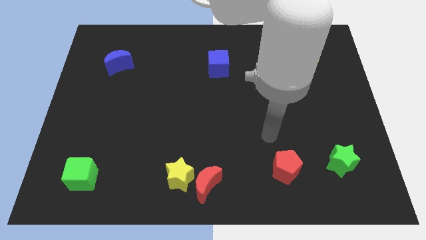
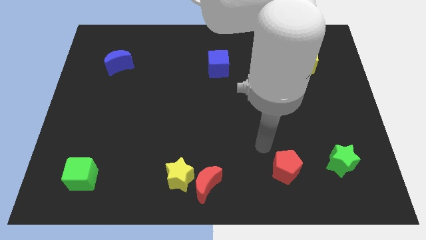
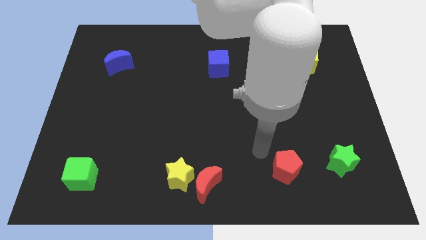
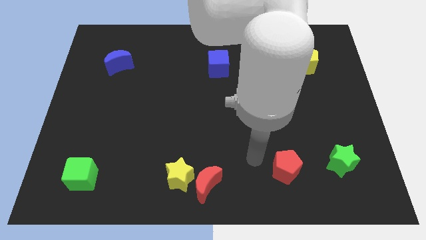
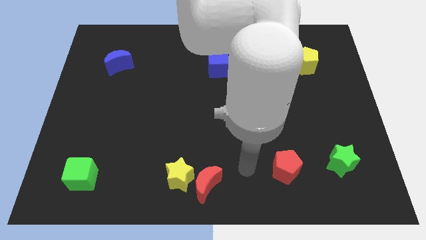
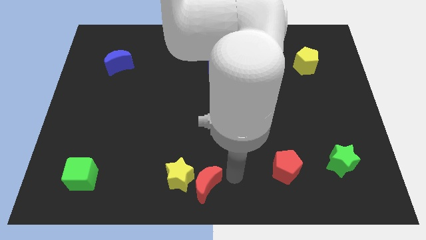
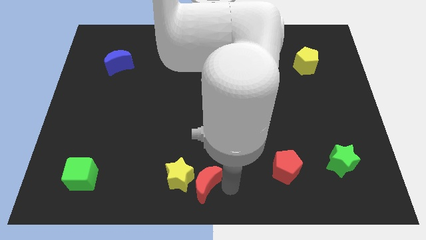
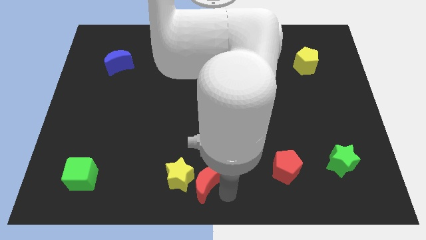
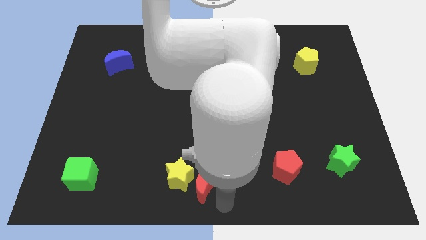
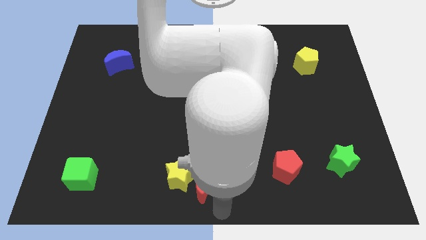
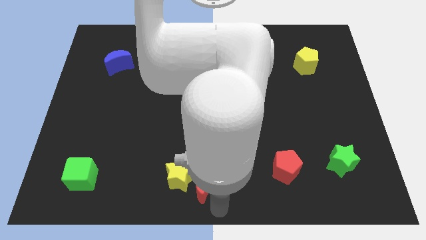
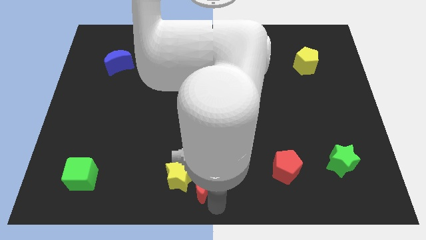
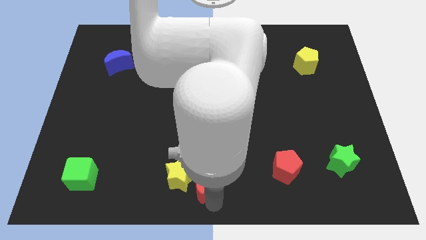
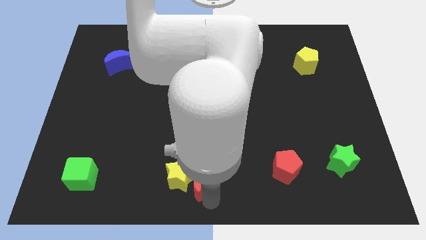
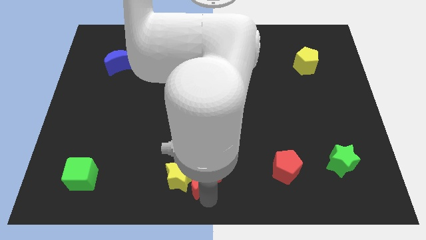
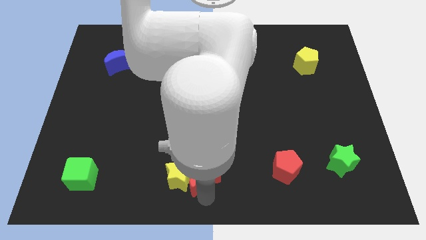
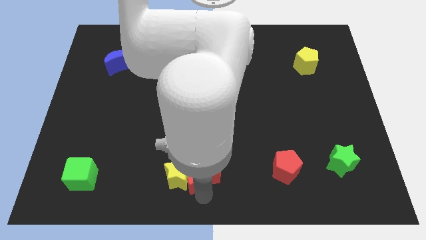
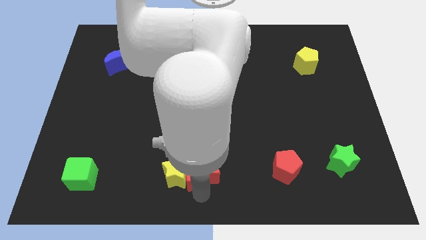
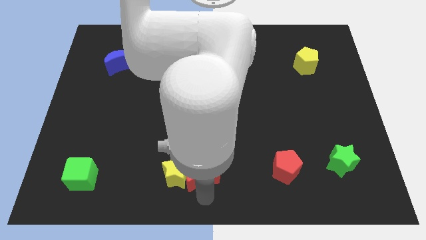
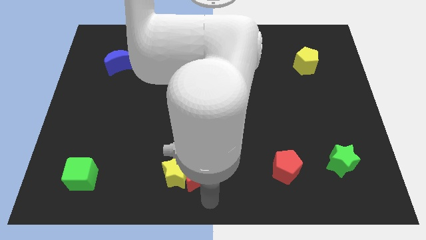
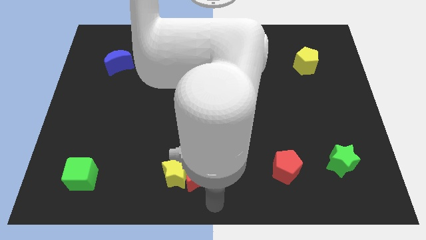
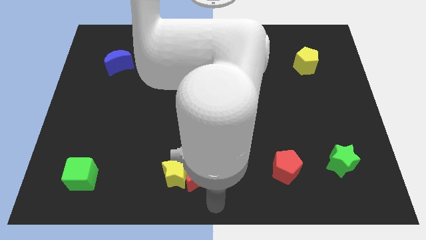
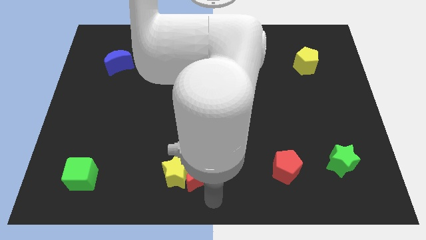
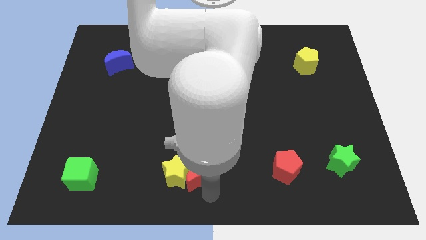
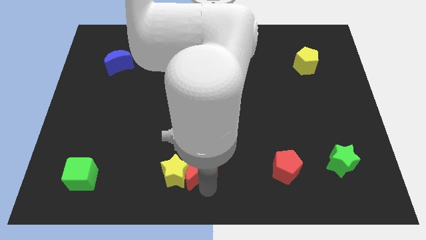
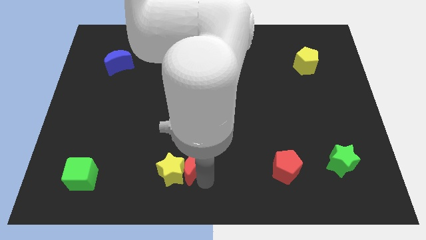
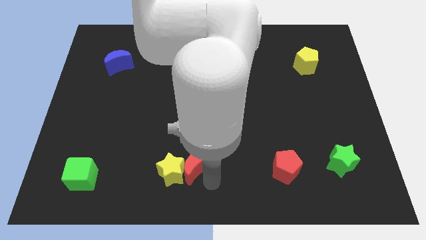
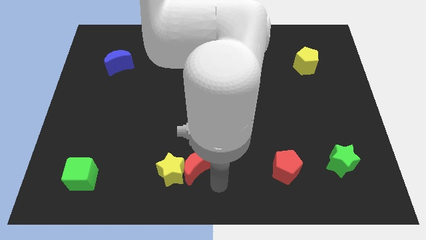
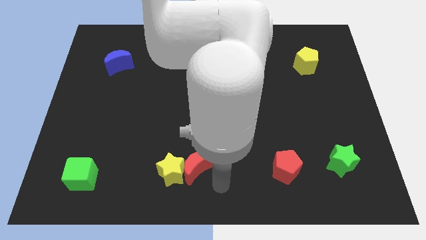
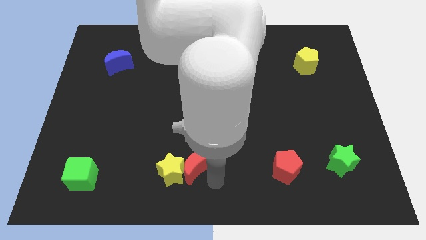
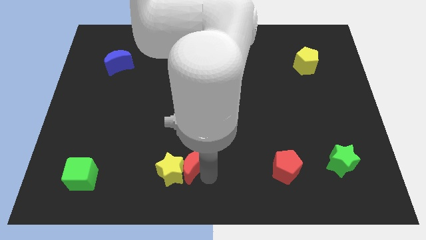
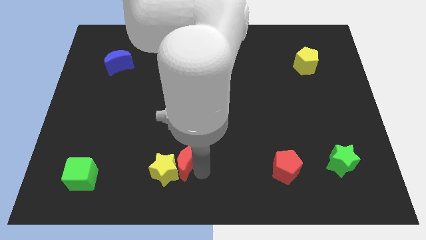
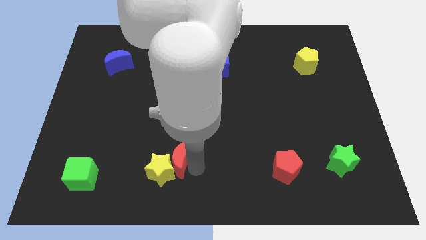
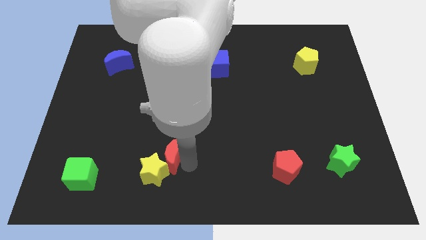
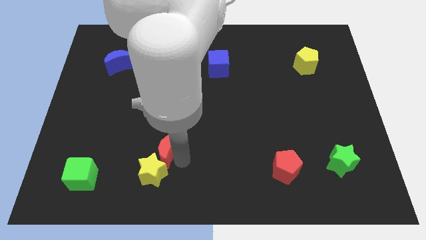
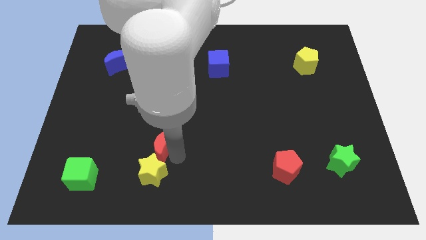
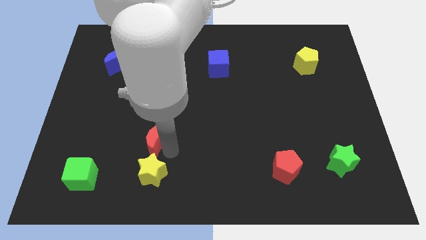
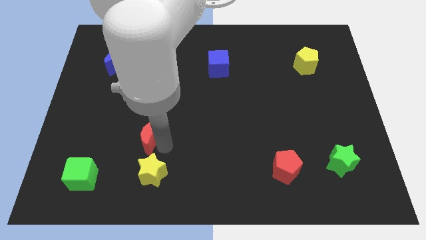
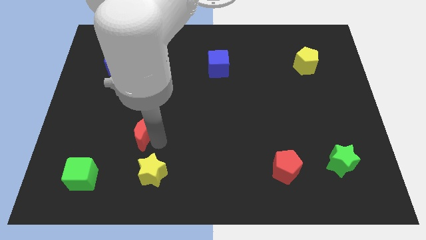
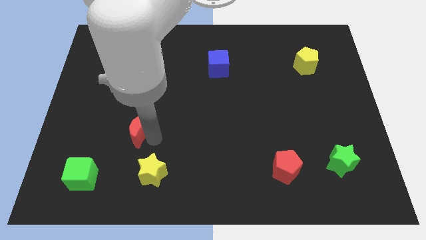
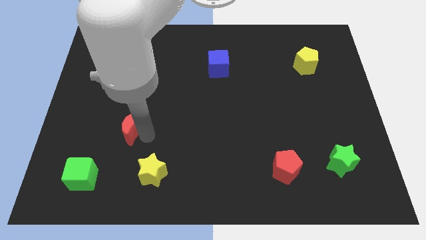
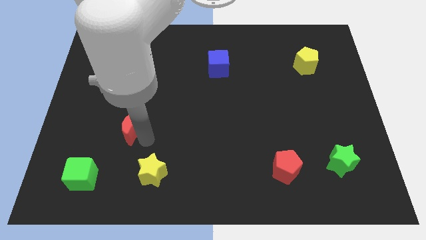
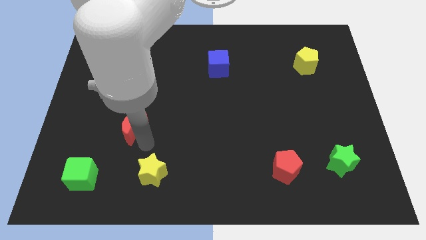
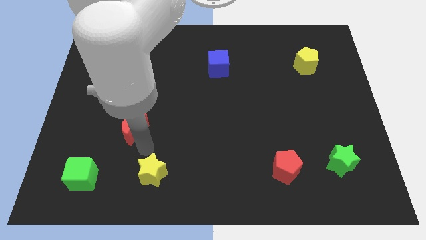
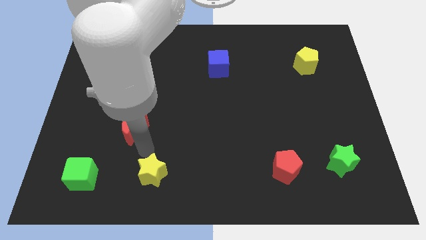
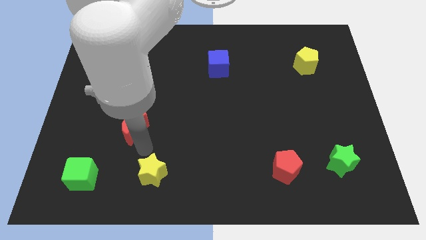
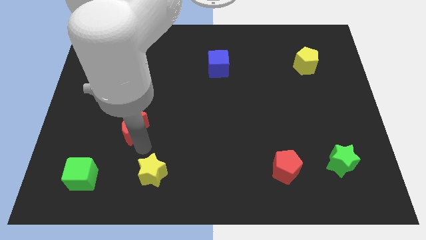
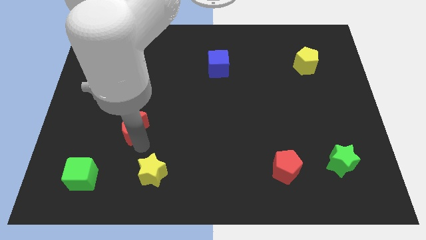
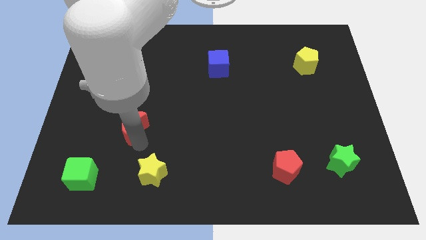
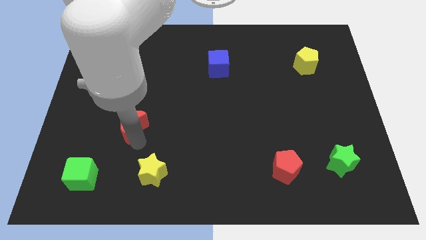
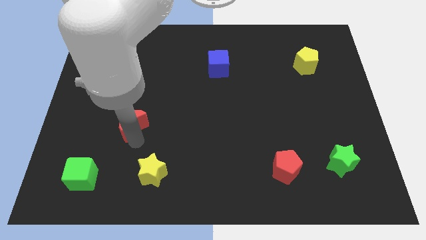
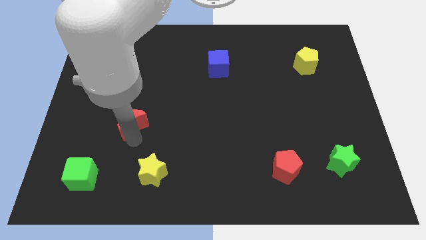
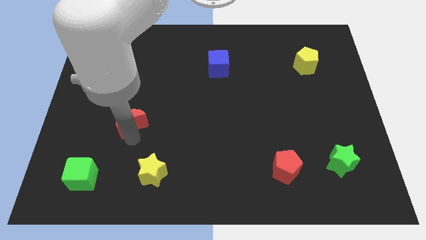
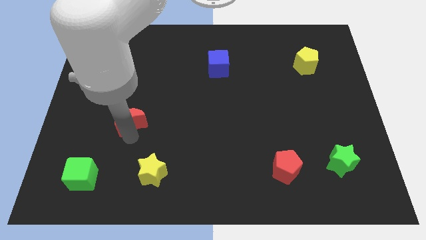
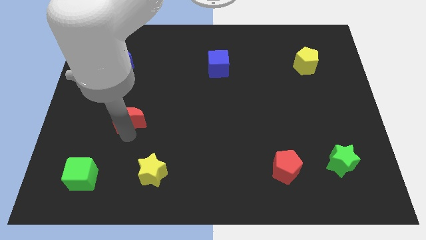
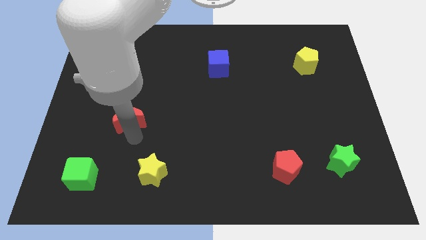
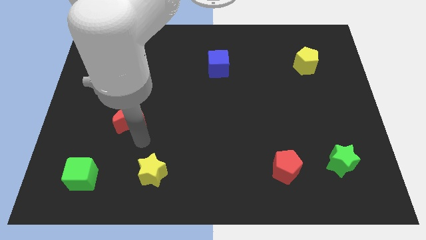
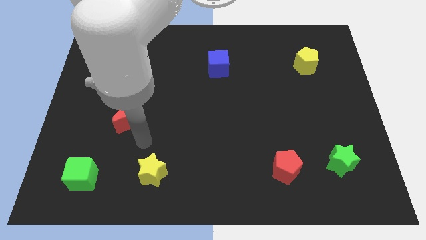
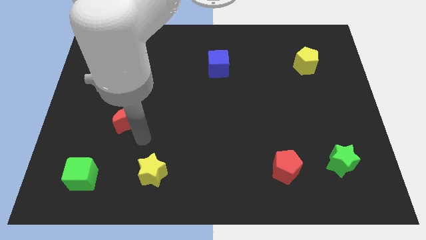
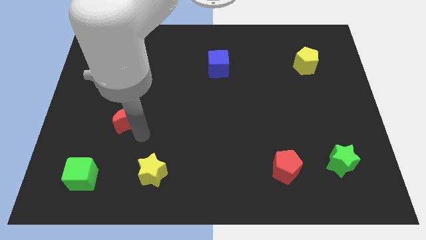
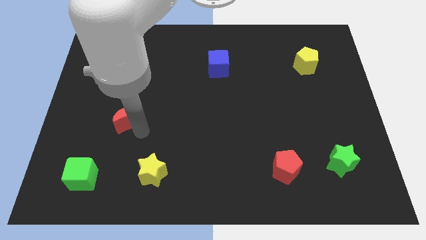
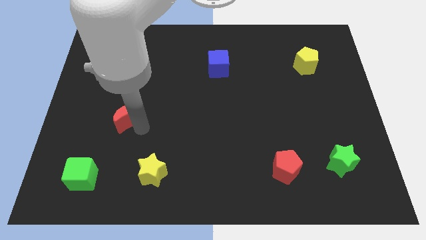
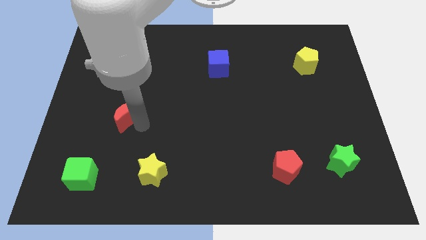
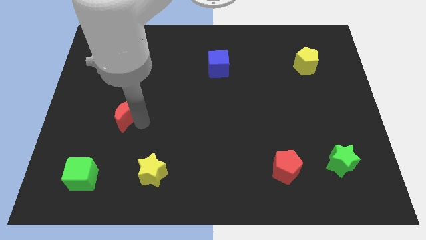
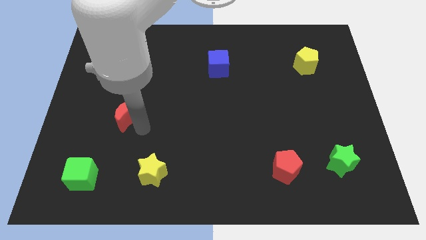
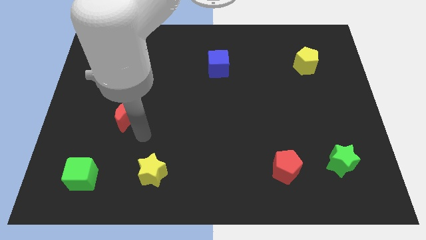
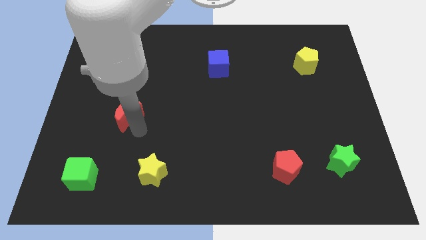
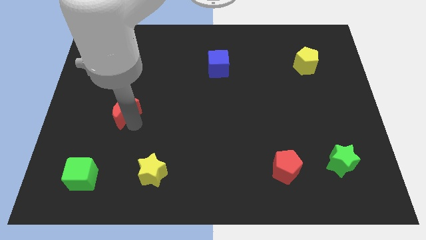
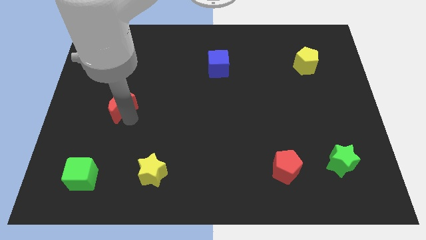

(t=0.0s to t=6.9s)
slide the red moon to the bottom of the blue moon

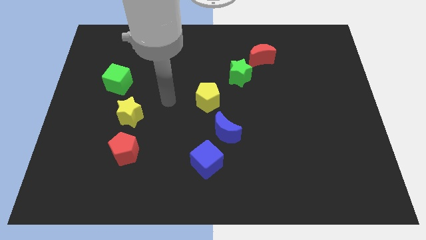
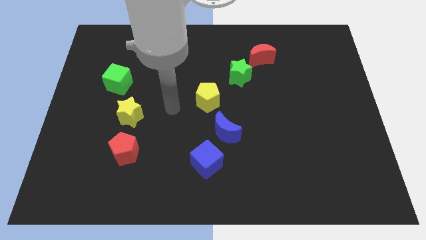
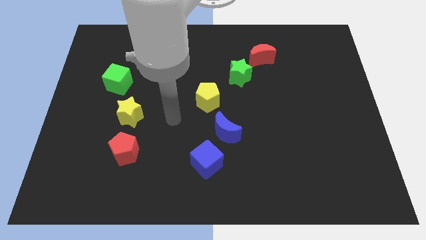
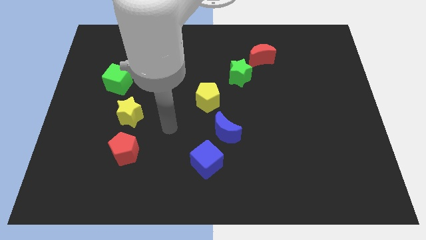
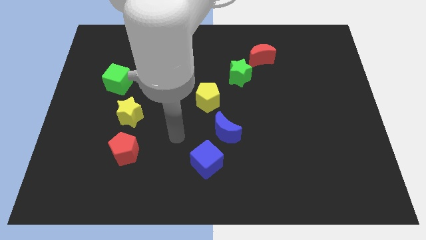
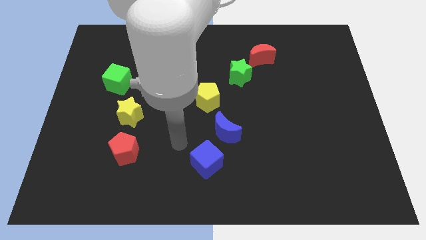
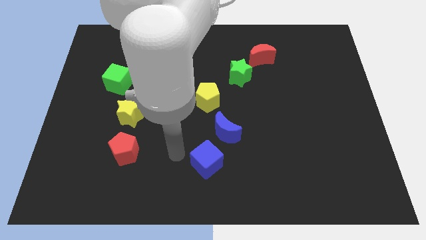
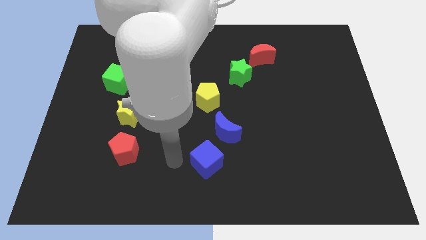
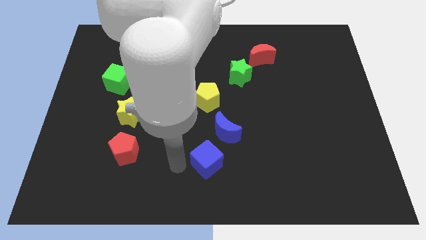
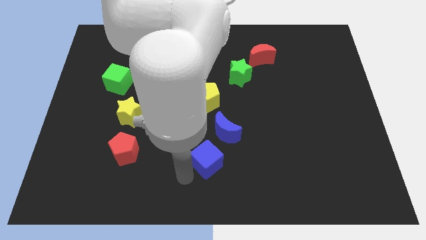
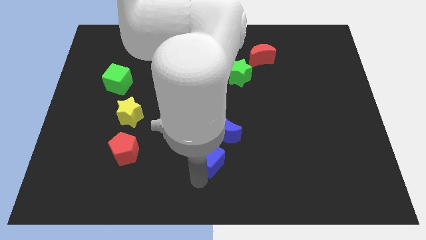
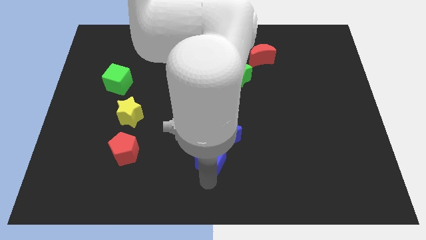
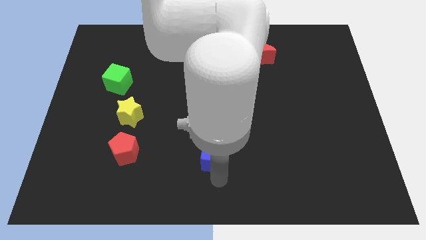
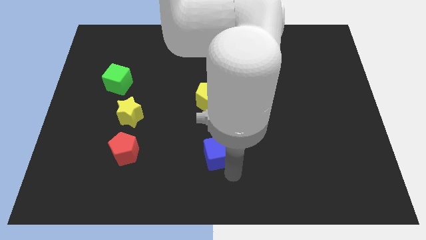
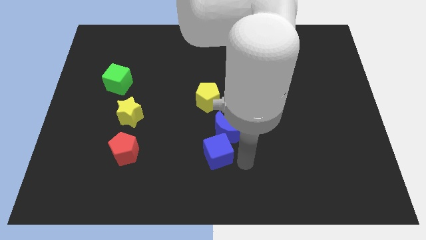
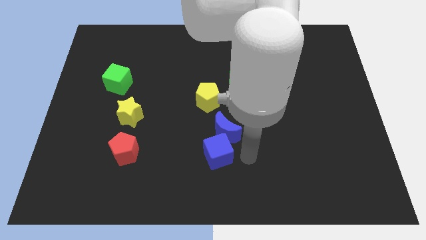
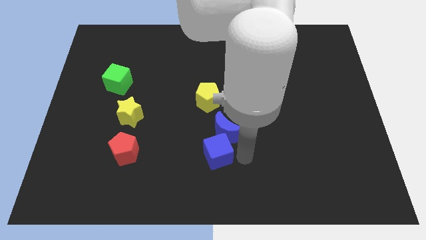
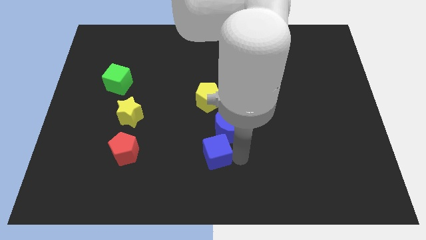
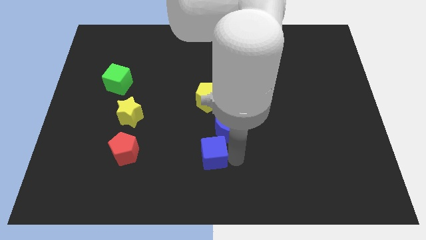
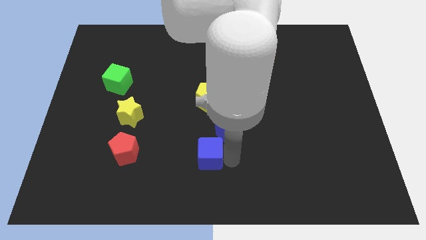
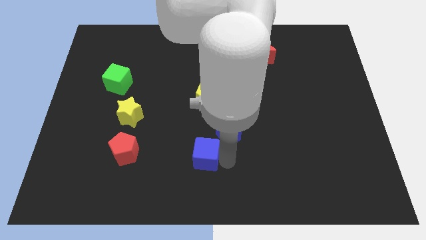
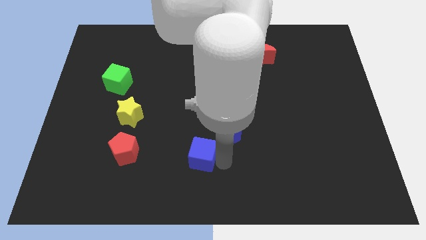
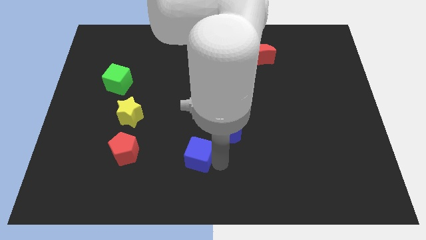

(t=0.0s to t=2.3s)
put the blue cube to the right side of the red pentagon
